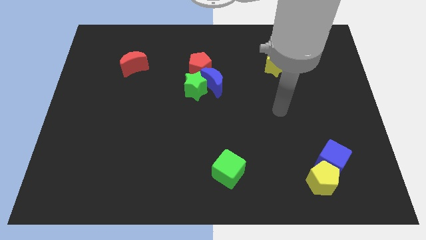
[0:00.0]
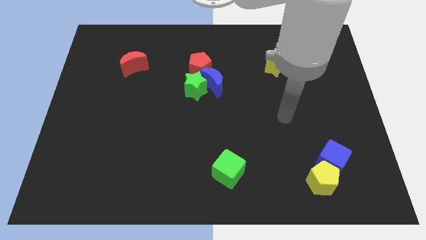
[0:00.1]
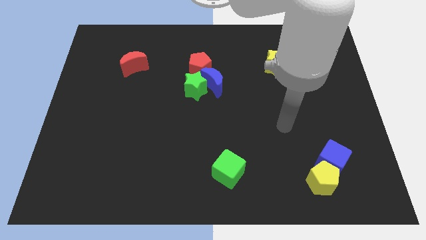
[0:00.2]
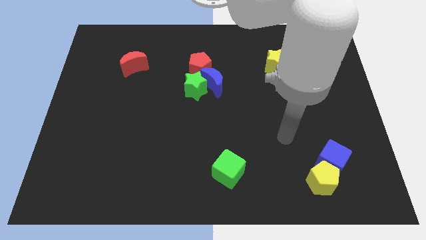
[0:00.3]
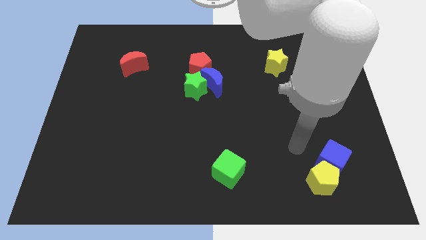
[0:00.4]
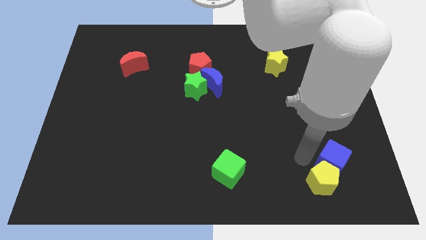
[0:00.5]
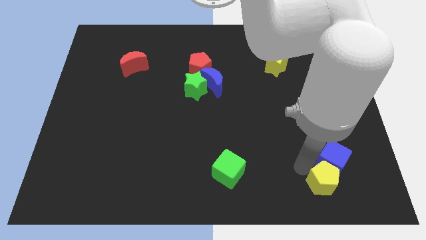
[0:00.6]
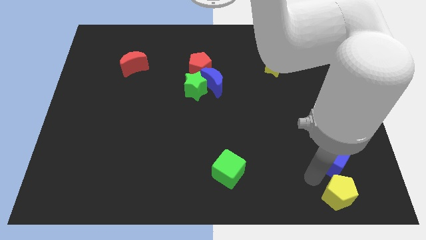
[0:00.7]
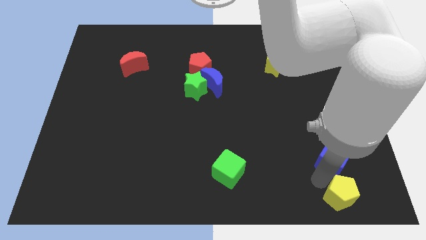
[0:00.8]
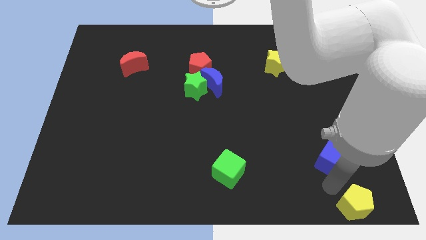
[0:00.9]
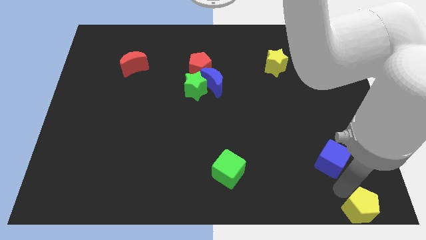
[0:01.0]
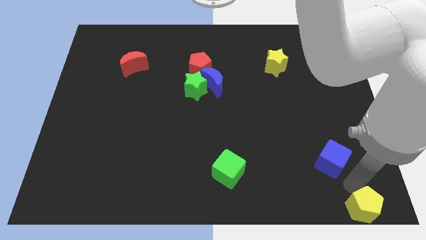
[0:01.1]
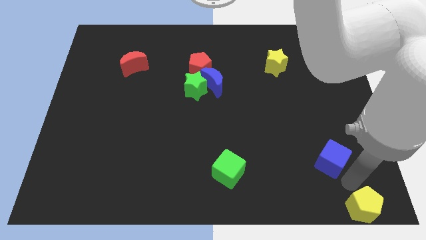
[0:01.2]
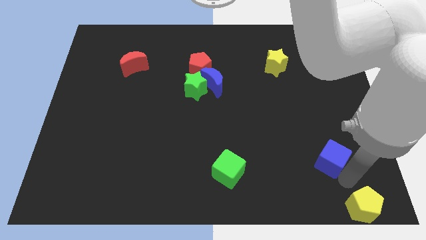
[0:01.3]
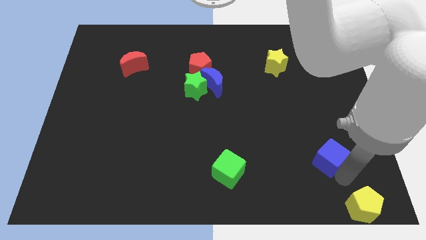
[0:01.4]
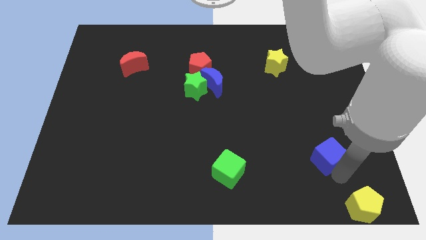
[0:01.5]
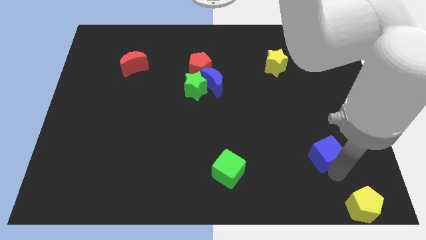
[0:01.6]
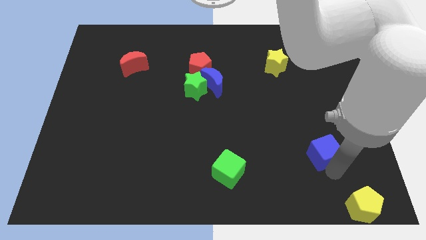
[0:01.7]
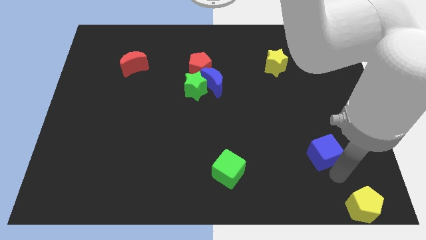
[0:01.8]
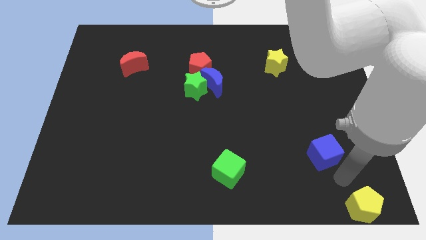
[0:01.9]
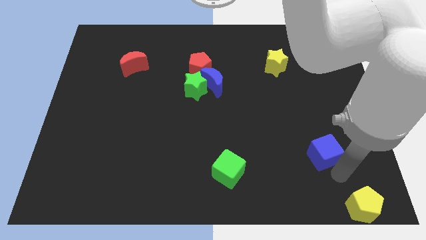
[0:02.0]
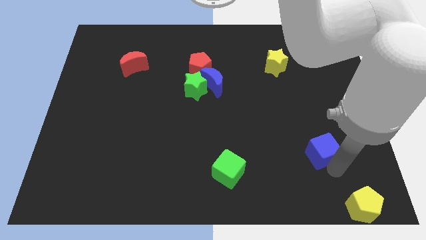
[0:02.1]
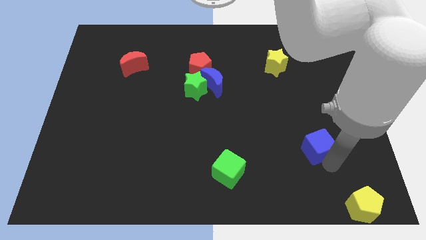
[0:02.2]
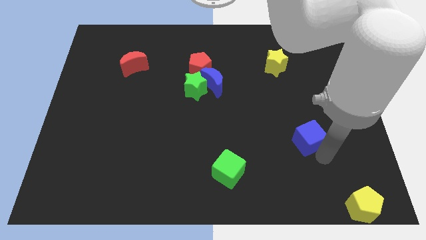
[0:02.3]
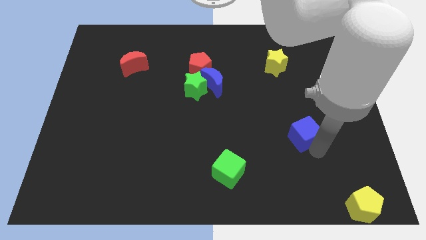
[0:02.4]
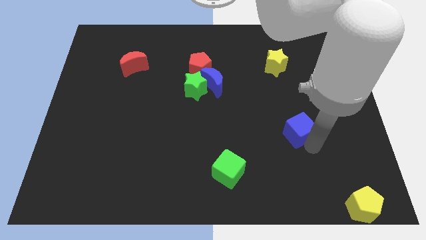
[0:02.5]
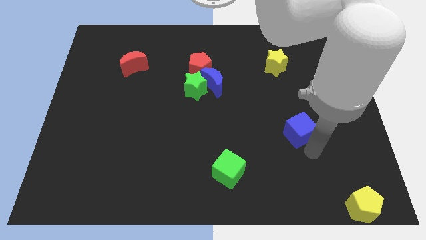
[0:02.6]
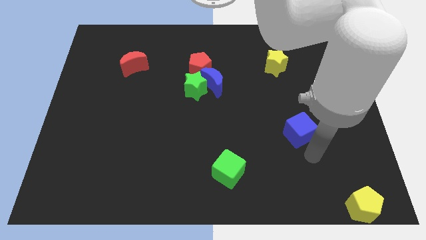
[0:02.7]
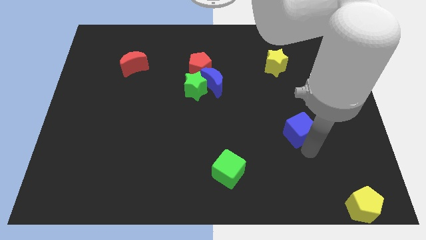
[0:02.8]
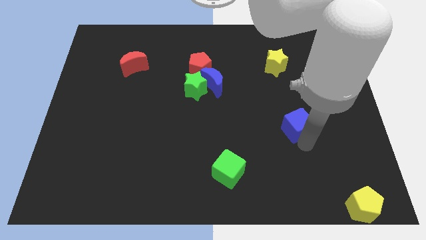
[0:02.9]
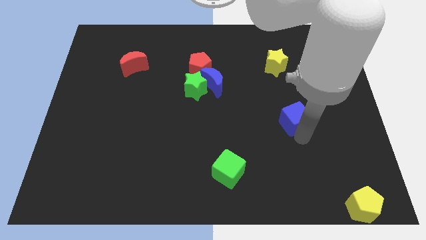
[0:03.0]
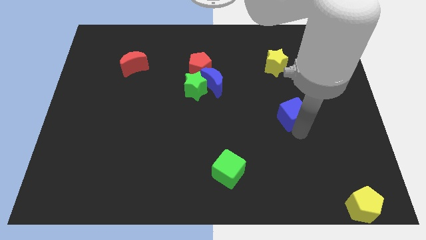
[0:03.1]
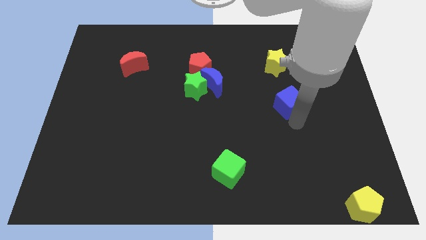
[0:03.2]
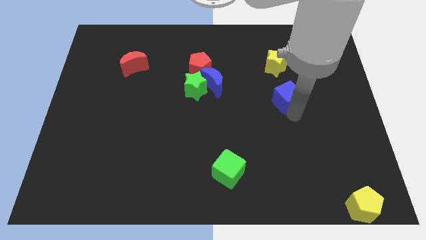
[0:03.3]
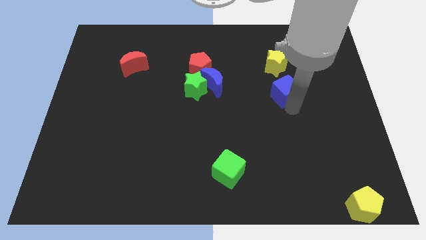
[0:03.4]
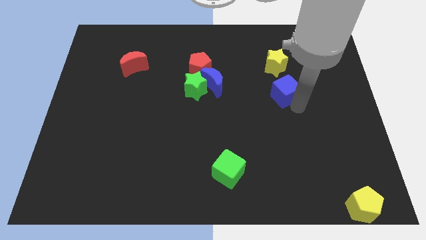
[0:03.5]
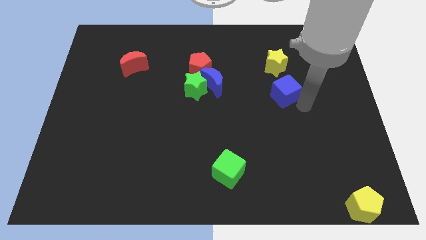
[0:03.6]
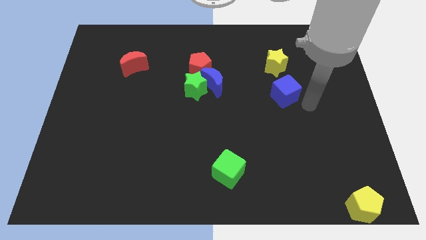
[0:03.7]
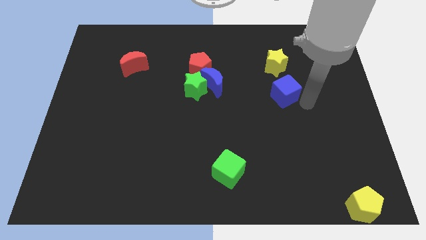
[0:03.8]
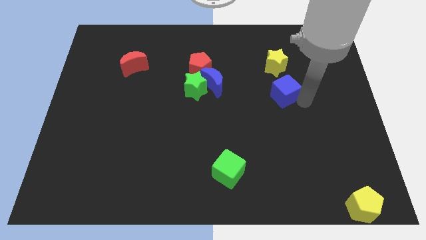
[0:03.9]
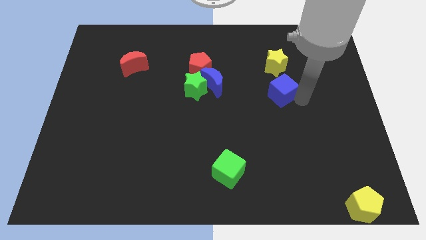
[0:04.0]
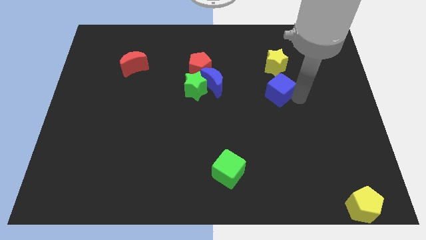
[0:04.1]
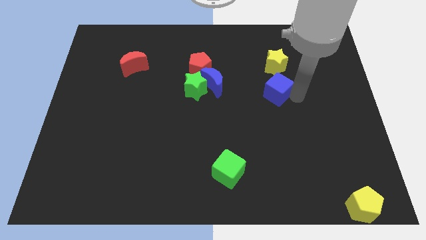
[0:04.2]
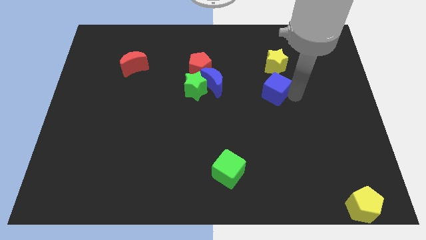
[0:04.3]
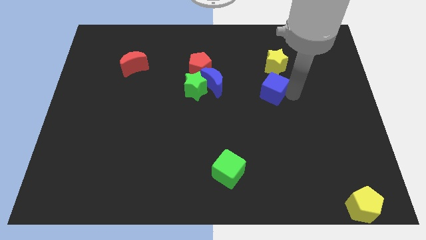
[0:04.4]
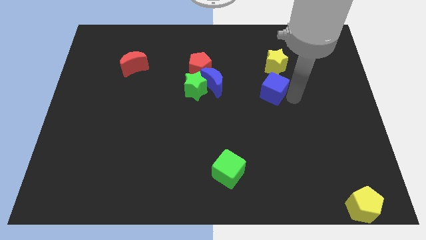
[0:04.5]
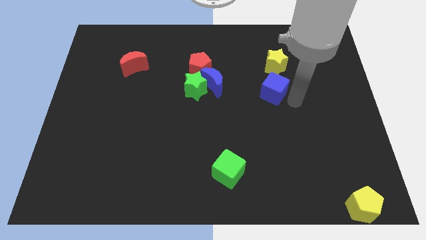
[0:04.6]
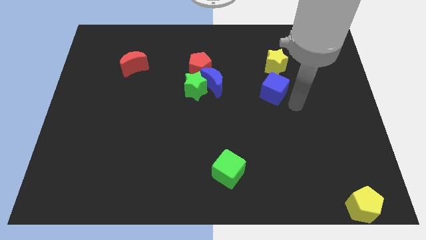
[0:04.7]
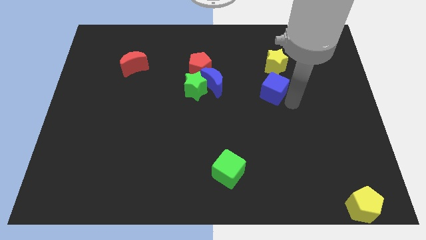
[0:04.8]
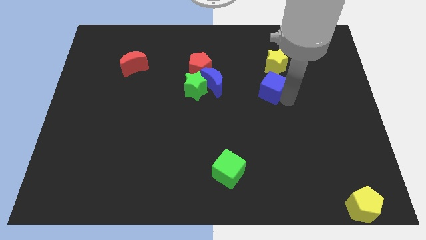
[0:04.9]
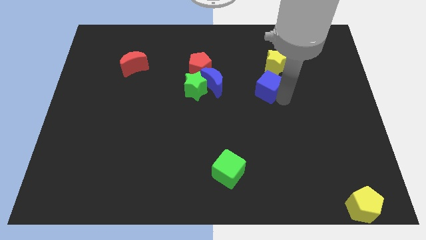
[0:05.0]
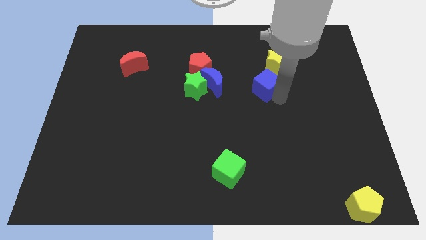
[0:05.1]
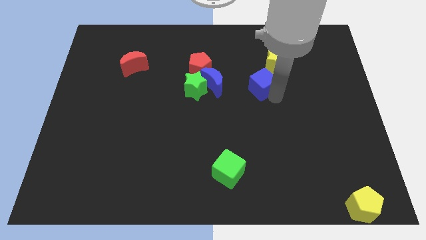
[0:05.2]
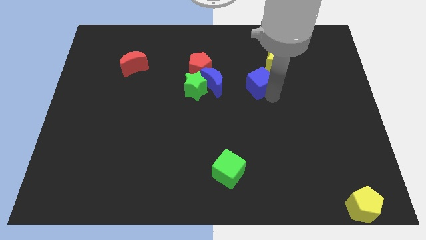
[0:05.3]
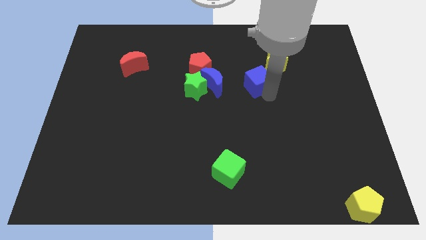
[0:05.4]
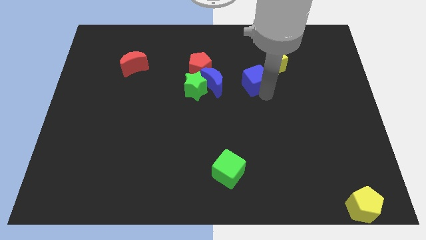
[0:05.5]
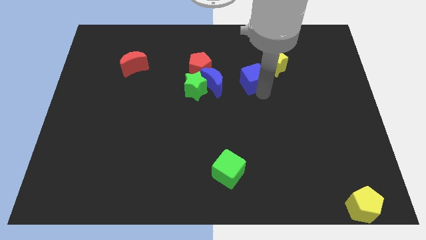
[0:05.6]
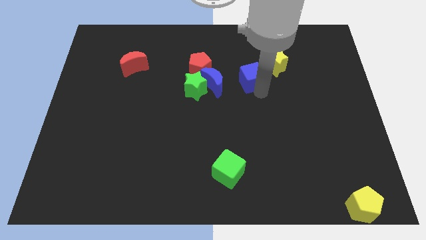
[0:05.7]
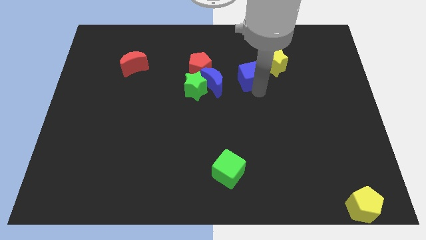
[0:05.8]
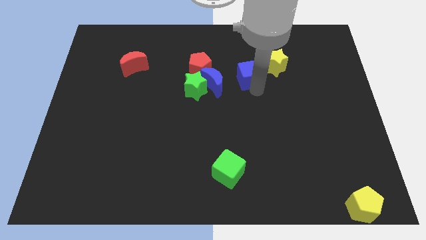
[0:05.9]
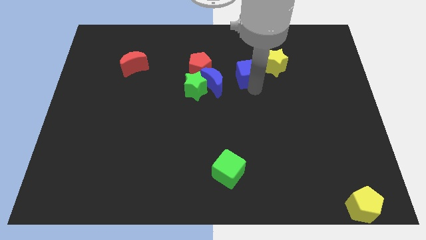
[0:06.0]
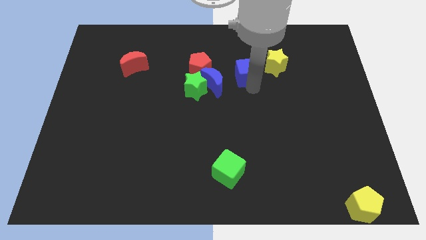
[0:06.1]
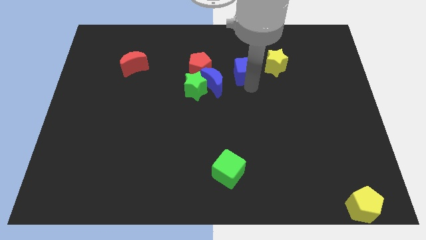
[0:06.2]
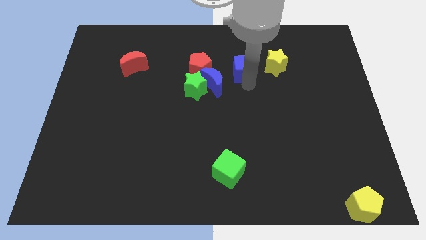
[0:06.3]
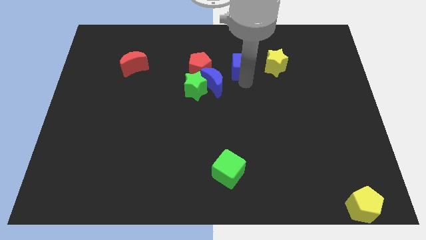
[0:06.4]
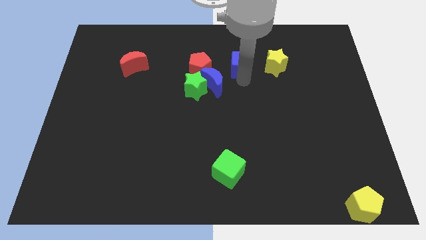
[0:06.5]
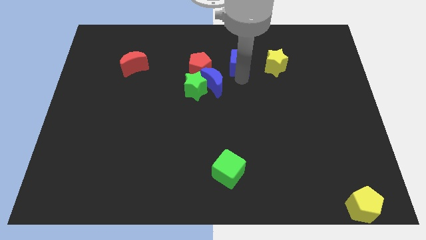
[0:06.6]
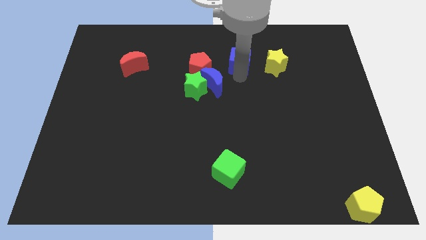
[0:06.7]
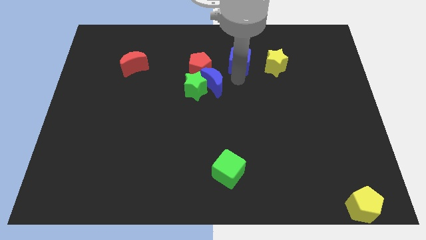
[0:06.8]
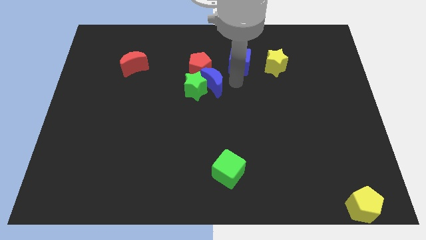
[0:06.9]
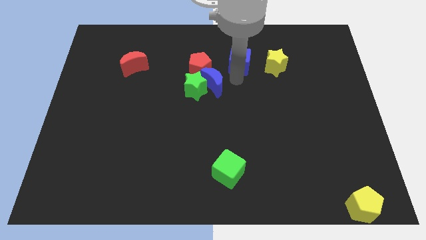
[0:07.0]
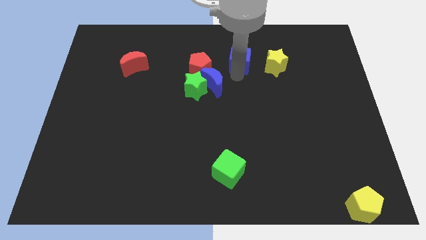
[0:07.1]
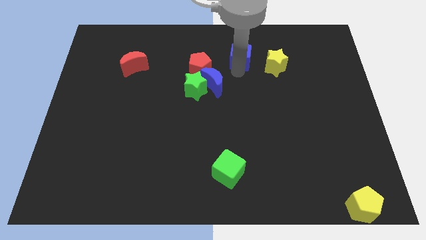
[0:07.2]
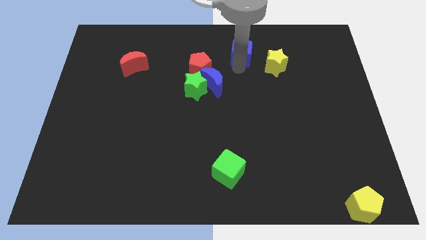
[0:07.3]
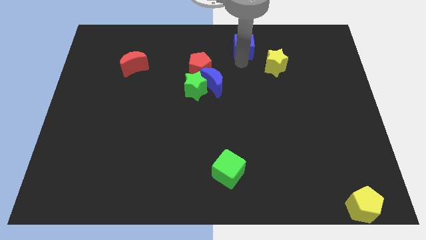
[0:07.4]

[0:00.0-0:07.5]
put the blue cube to the towards your base
